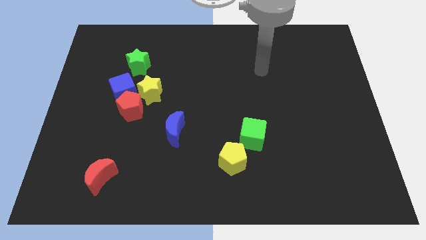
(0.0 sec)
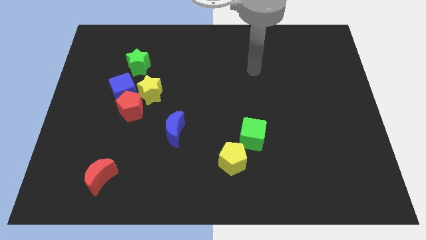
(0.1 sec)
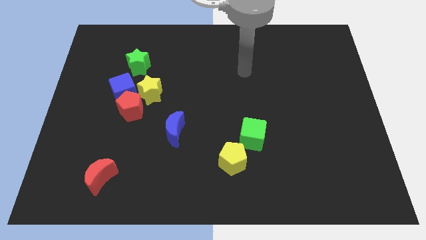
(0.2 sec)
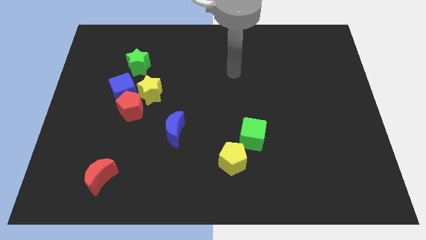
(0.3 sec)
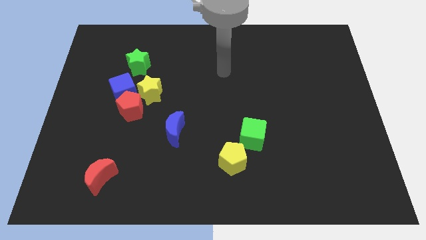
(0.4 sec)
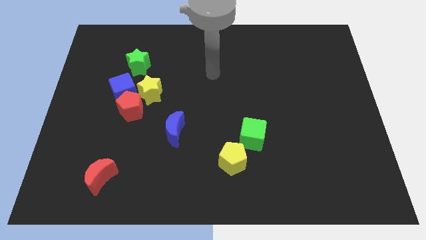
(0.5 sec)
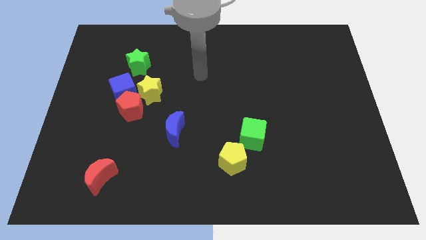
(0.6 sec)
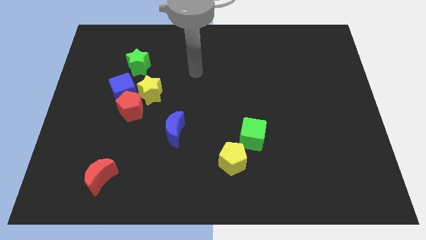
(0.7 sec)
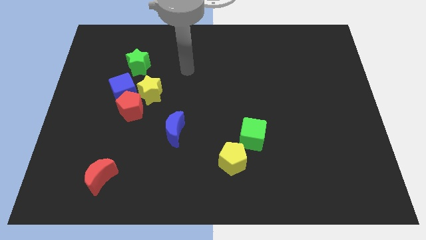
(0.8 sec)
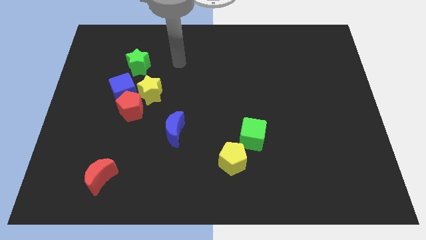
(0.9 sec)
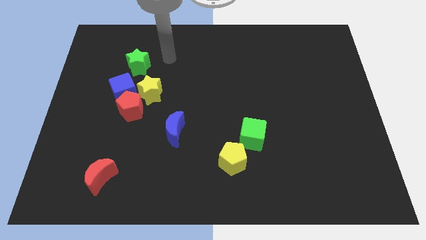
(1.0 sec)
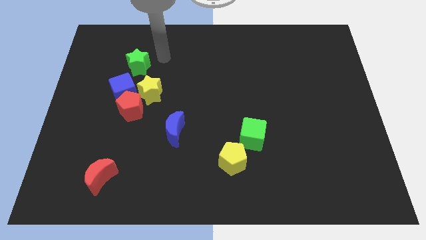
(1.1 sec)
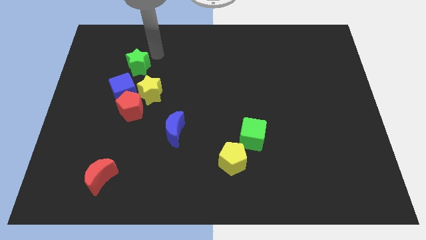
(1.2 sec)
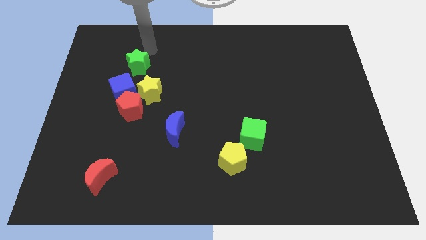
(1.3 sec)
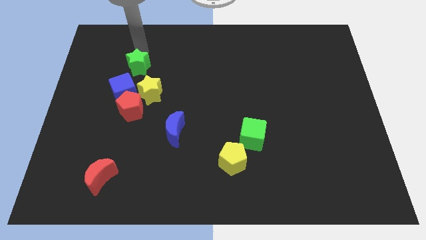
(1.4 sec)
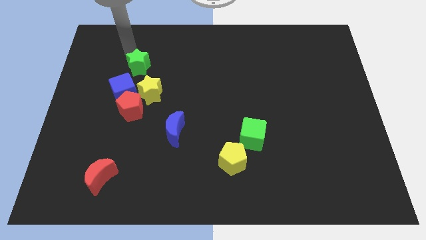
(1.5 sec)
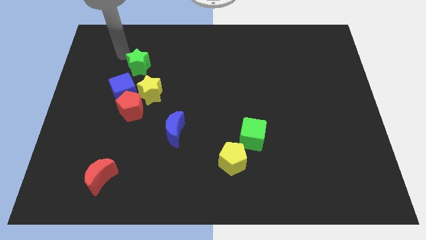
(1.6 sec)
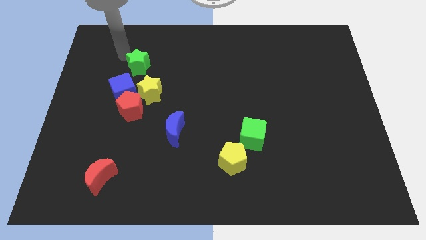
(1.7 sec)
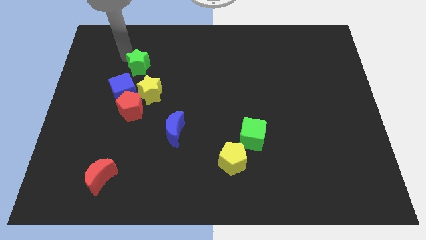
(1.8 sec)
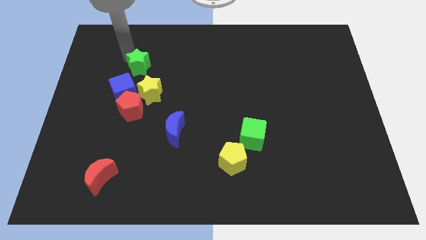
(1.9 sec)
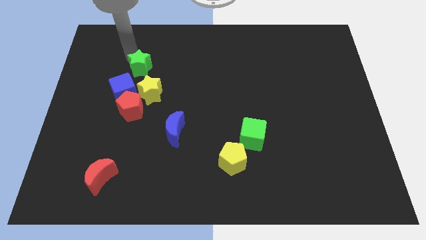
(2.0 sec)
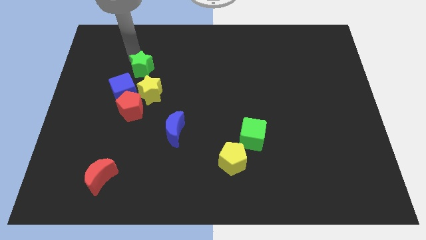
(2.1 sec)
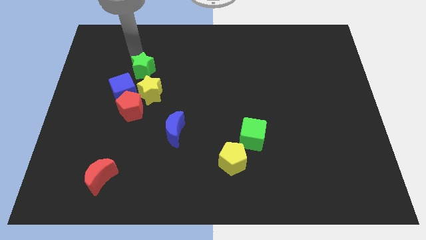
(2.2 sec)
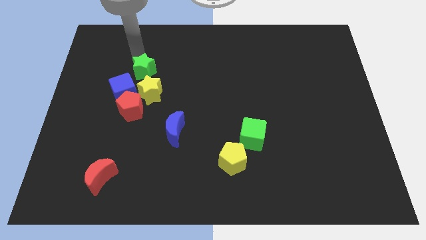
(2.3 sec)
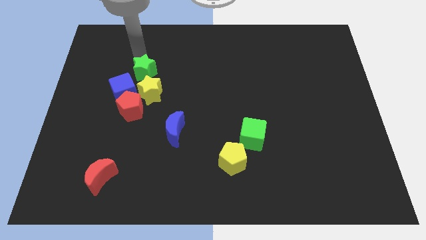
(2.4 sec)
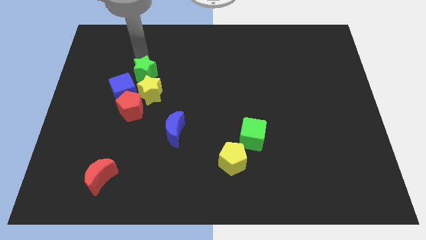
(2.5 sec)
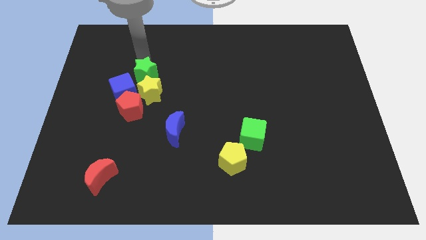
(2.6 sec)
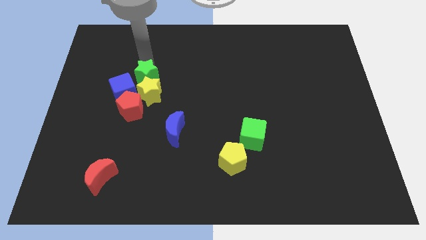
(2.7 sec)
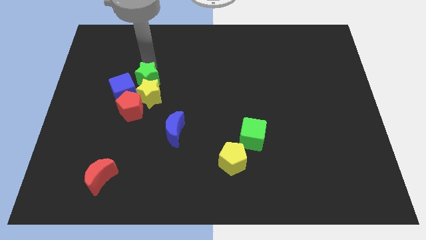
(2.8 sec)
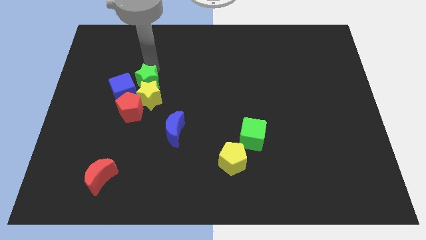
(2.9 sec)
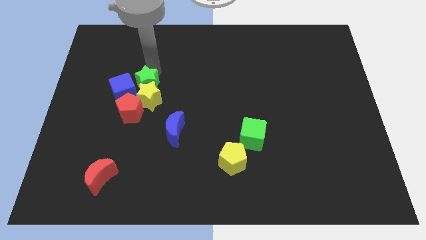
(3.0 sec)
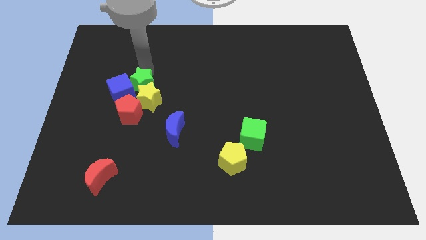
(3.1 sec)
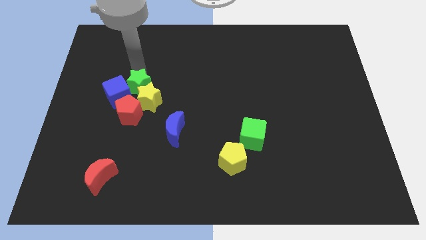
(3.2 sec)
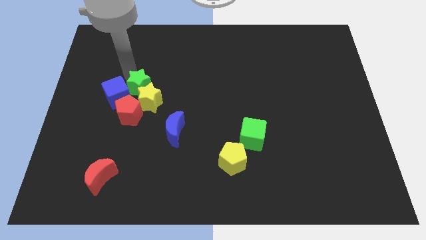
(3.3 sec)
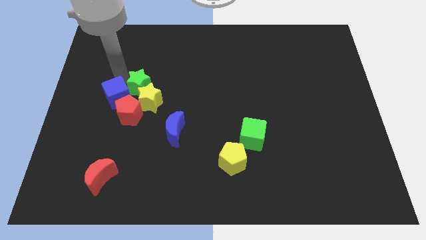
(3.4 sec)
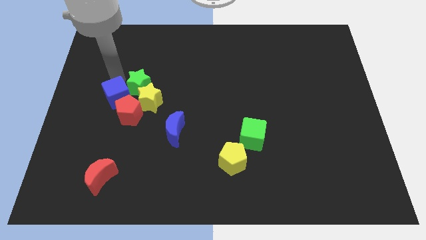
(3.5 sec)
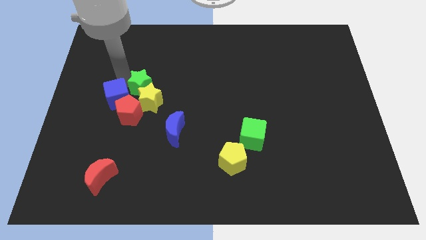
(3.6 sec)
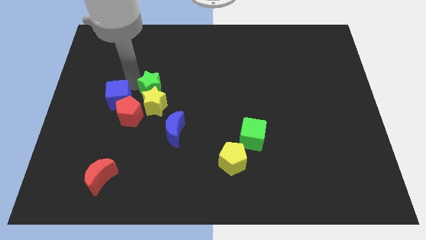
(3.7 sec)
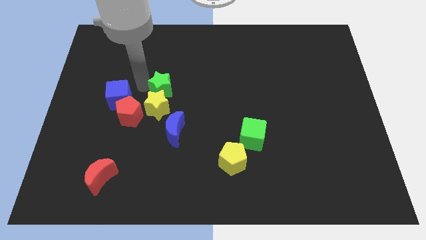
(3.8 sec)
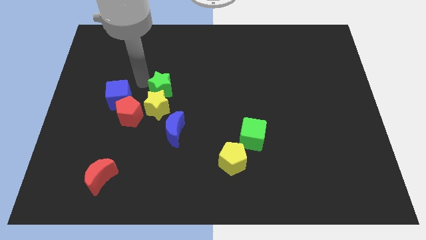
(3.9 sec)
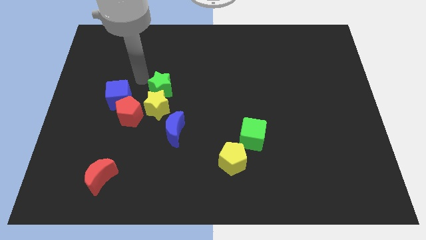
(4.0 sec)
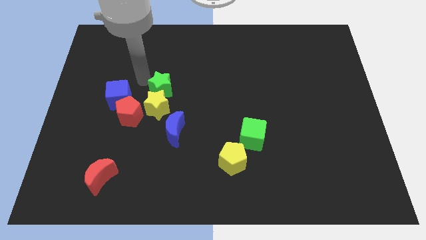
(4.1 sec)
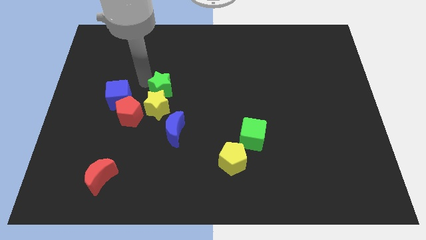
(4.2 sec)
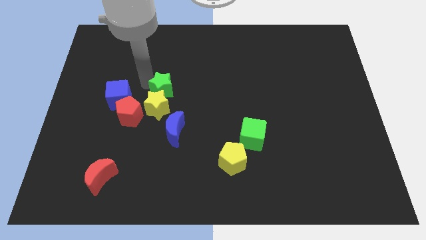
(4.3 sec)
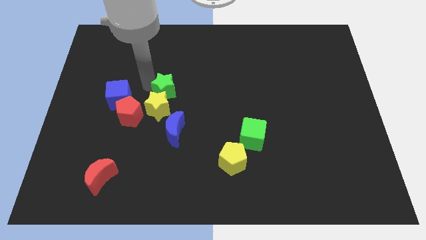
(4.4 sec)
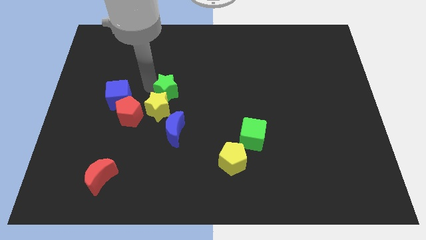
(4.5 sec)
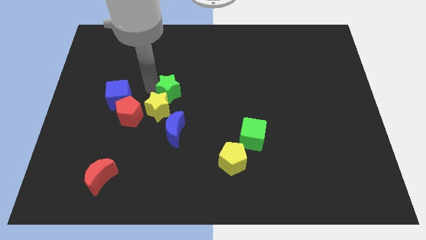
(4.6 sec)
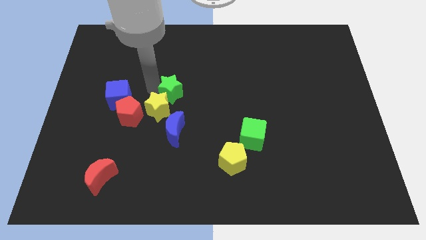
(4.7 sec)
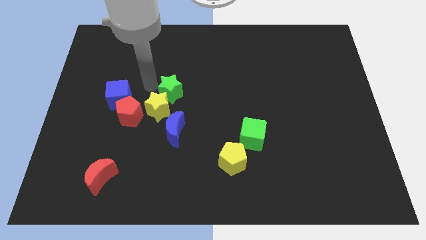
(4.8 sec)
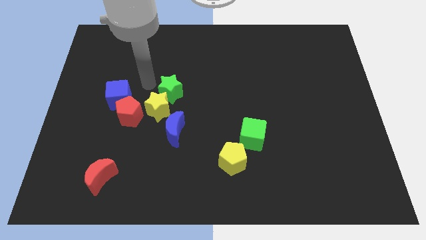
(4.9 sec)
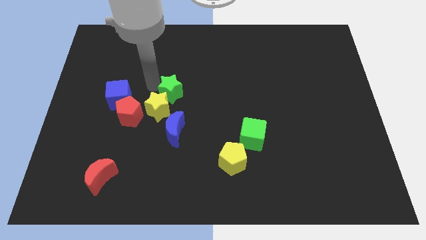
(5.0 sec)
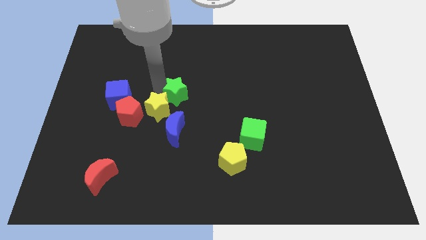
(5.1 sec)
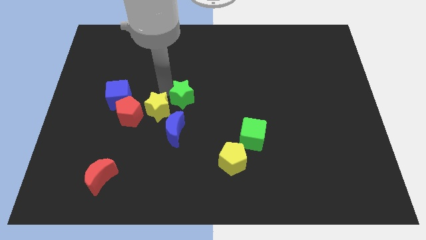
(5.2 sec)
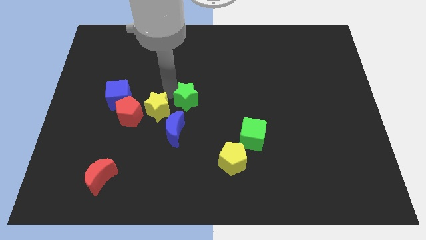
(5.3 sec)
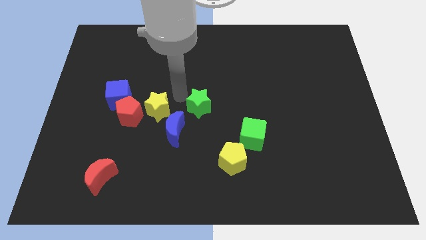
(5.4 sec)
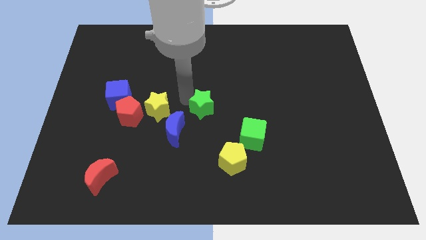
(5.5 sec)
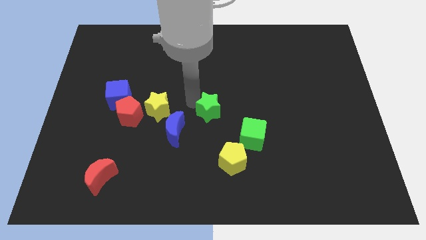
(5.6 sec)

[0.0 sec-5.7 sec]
slide the green star to the top left side of the green cube
